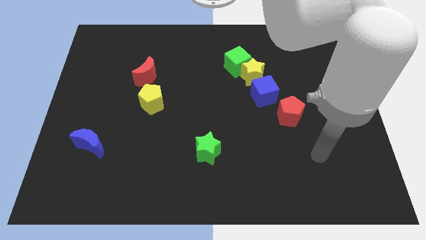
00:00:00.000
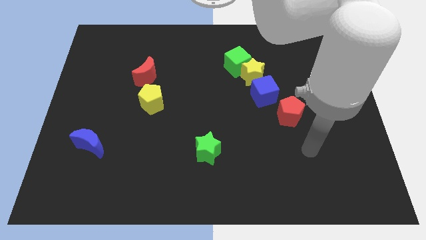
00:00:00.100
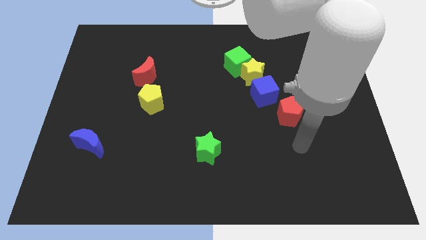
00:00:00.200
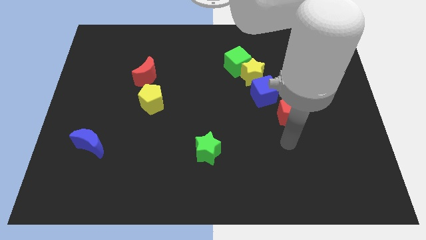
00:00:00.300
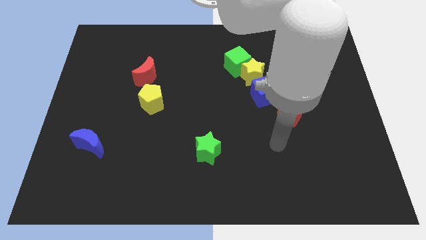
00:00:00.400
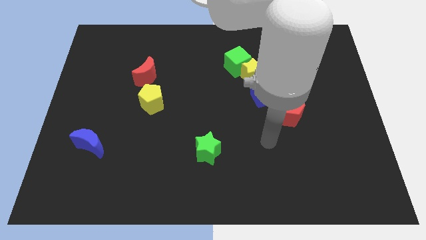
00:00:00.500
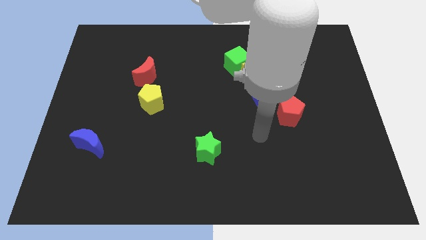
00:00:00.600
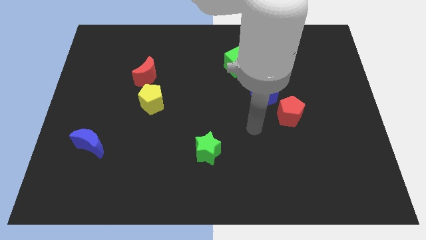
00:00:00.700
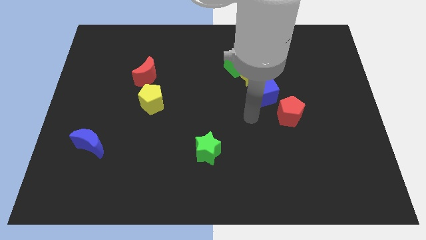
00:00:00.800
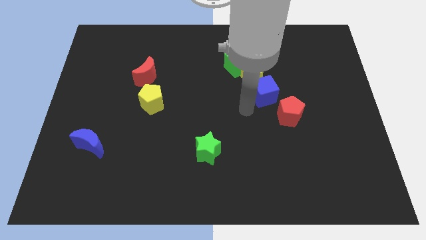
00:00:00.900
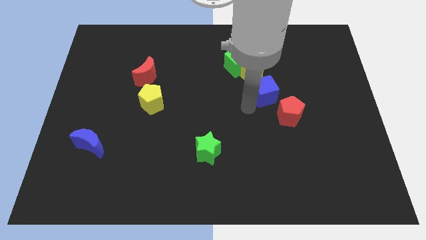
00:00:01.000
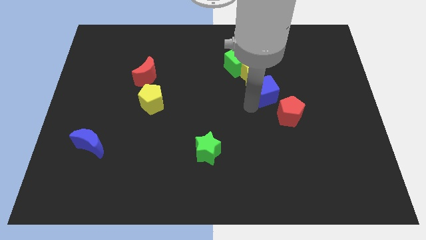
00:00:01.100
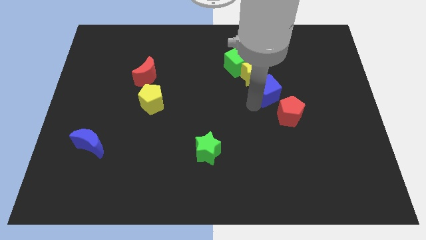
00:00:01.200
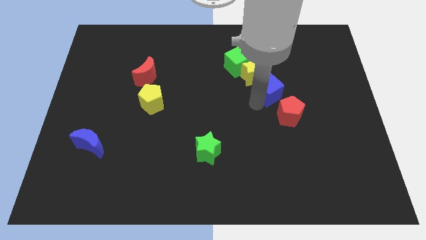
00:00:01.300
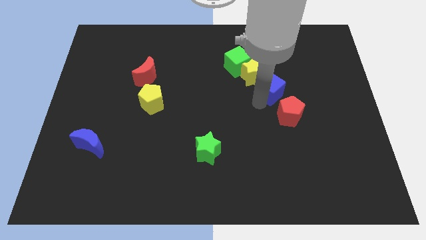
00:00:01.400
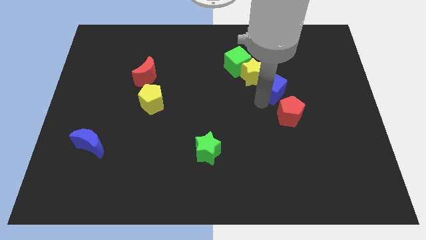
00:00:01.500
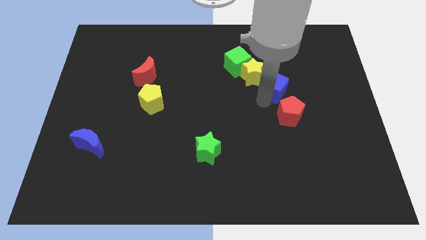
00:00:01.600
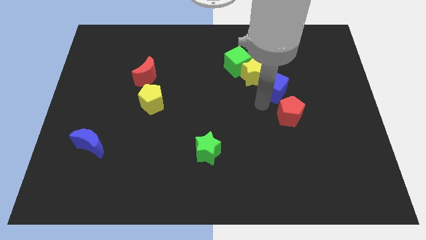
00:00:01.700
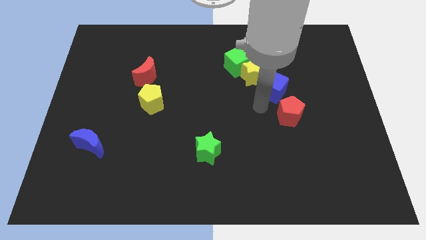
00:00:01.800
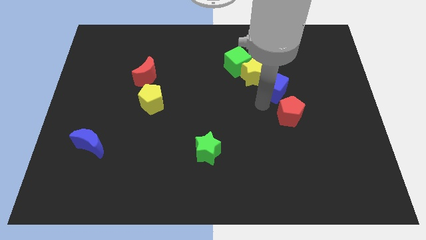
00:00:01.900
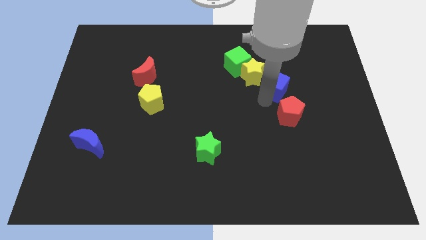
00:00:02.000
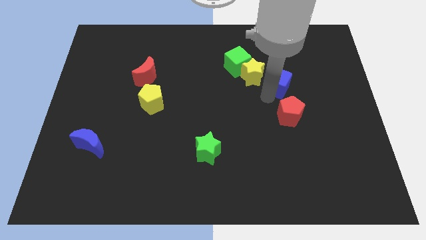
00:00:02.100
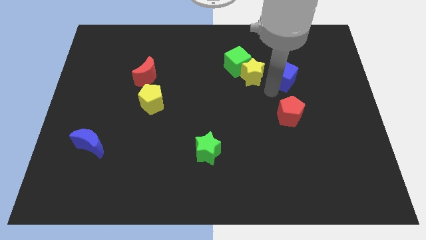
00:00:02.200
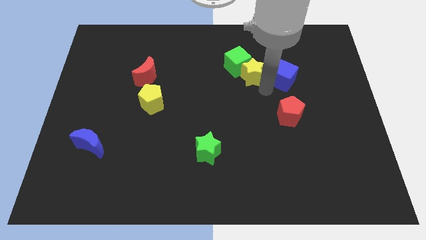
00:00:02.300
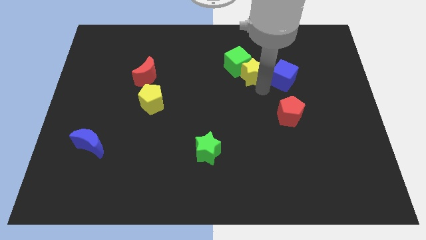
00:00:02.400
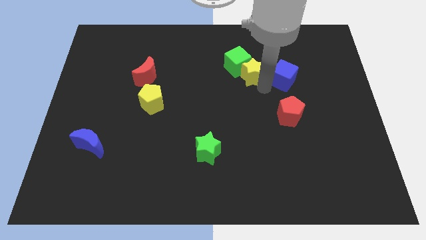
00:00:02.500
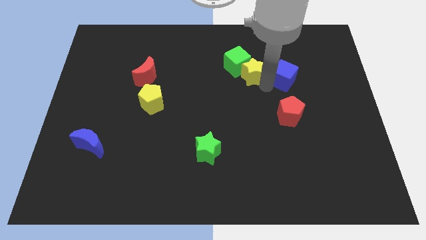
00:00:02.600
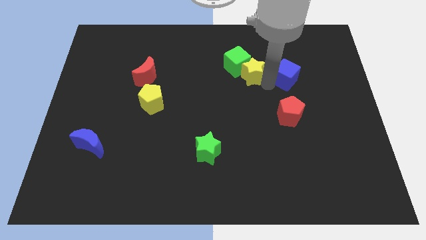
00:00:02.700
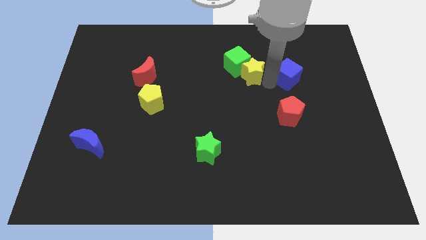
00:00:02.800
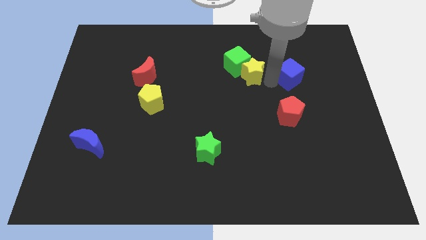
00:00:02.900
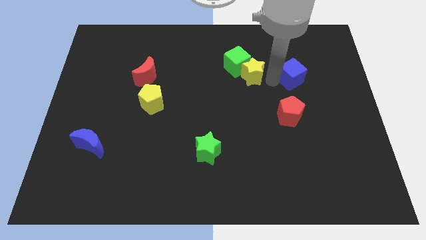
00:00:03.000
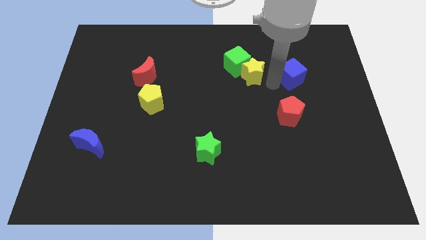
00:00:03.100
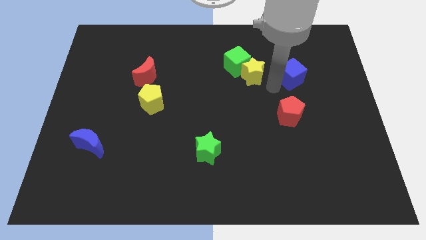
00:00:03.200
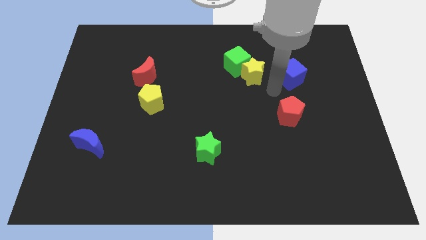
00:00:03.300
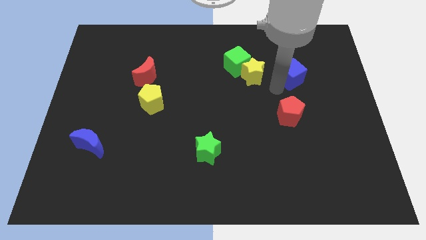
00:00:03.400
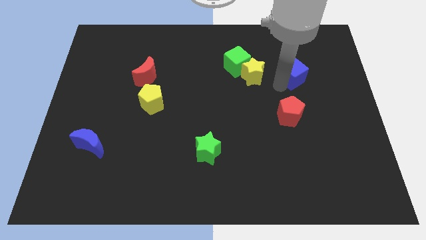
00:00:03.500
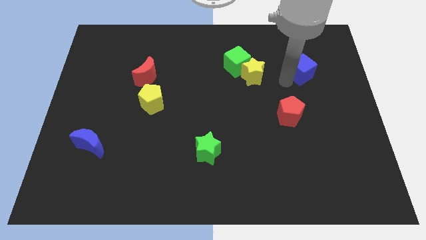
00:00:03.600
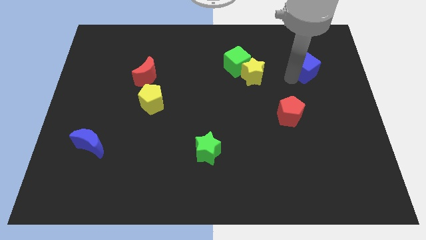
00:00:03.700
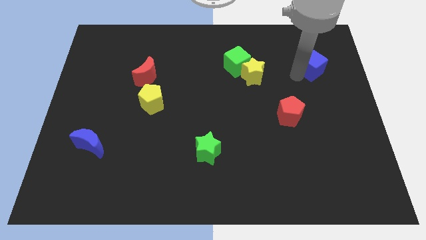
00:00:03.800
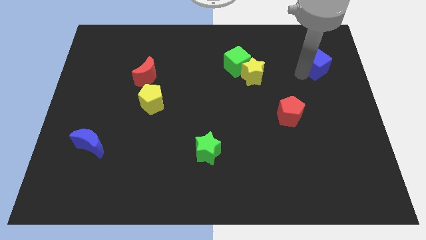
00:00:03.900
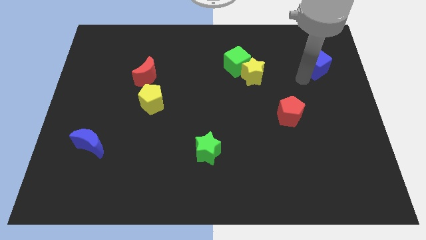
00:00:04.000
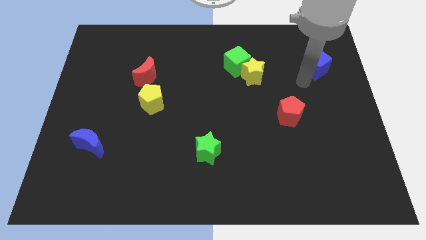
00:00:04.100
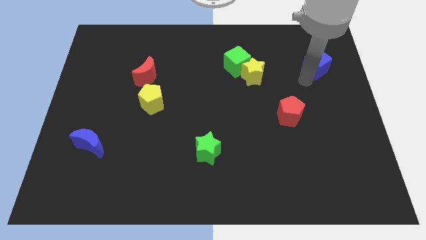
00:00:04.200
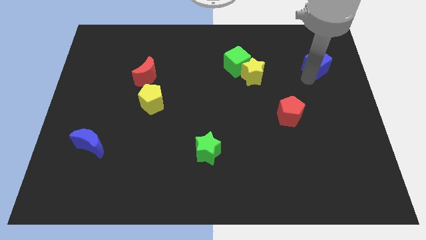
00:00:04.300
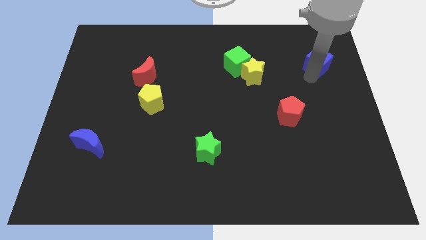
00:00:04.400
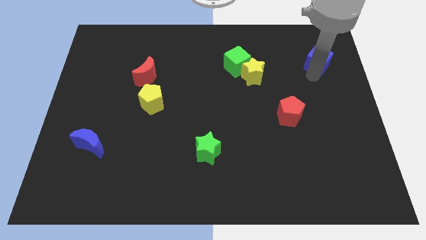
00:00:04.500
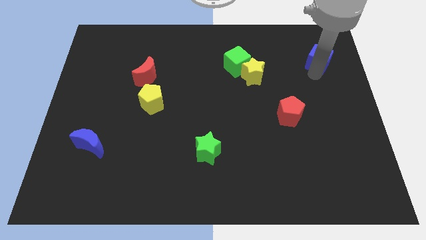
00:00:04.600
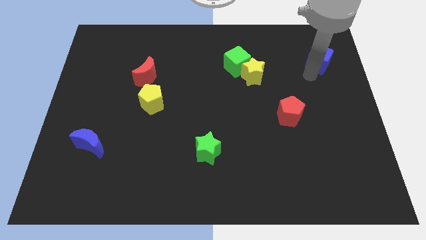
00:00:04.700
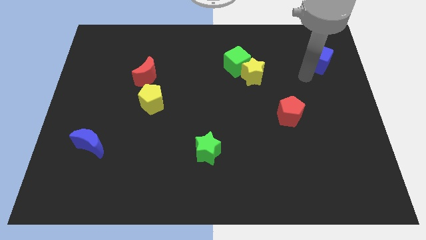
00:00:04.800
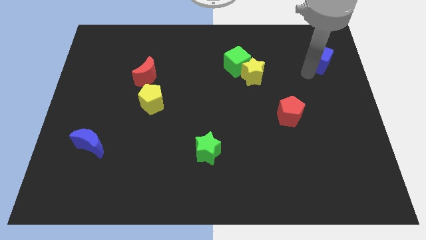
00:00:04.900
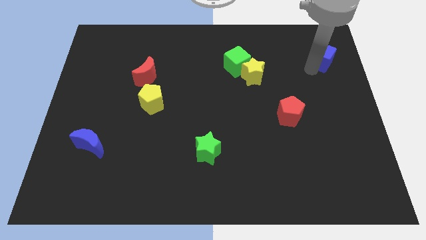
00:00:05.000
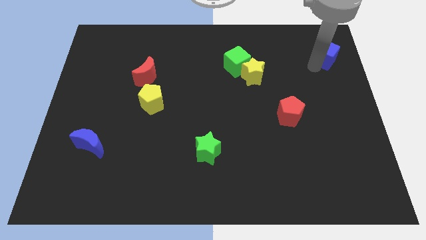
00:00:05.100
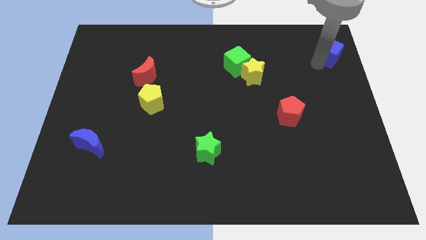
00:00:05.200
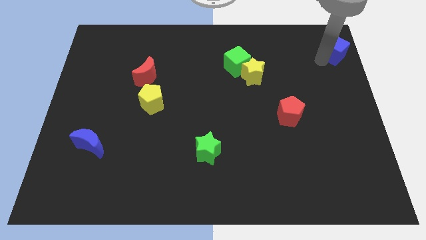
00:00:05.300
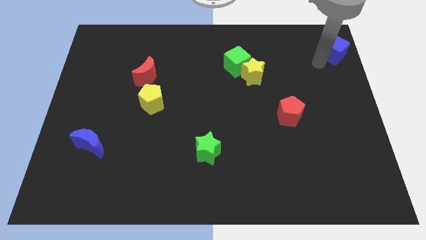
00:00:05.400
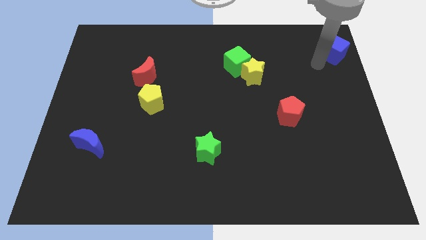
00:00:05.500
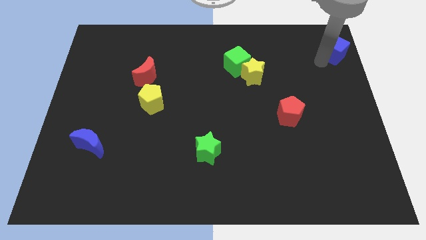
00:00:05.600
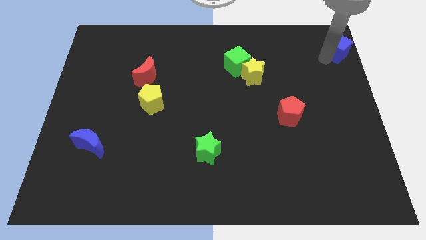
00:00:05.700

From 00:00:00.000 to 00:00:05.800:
slide the blue cube to the upper right corner

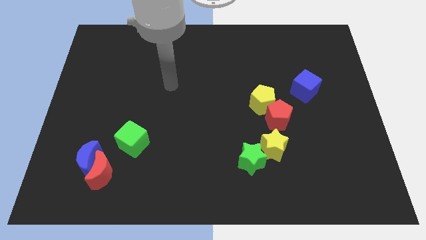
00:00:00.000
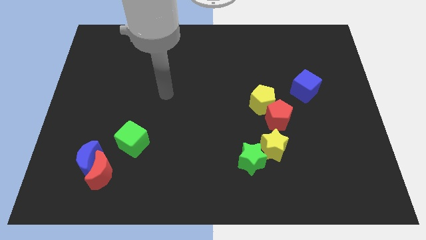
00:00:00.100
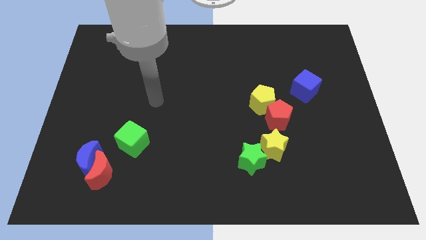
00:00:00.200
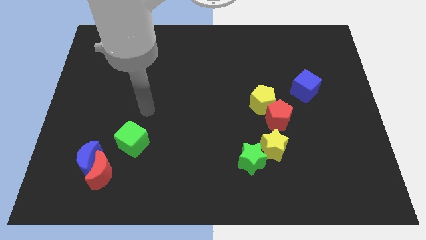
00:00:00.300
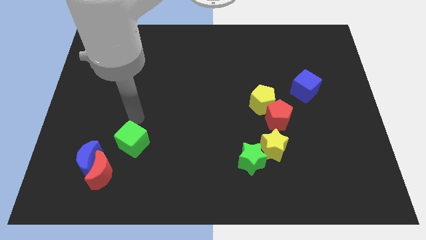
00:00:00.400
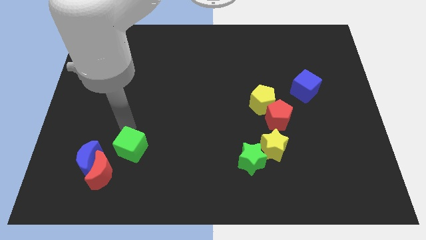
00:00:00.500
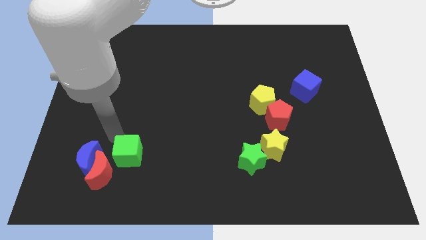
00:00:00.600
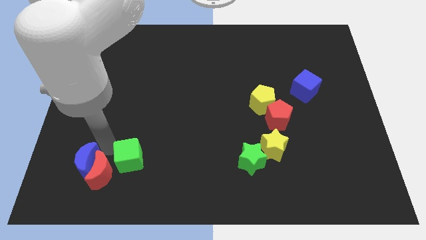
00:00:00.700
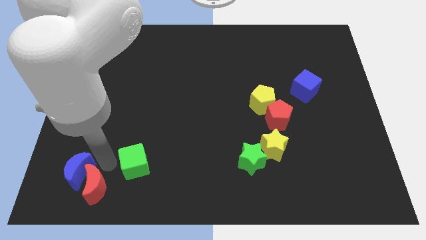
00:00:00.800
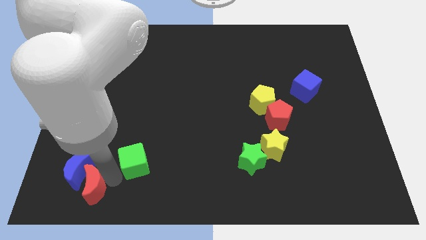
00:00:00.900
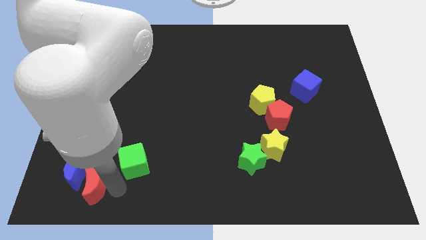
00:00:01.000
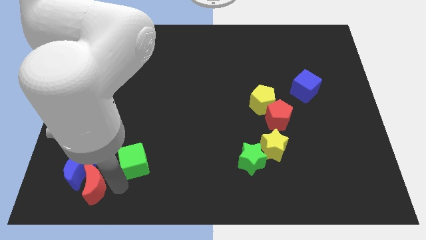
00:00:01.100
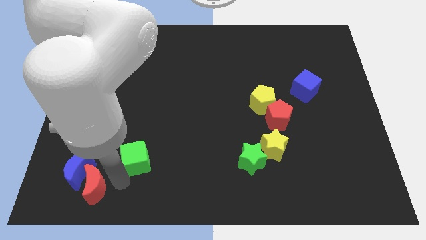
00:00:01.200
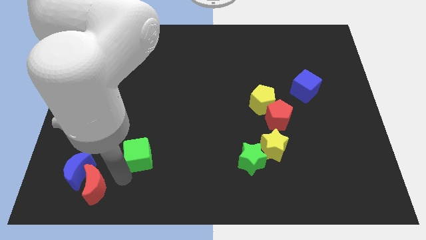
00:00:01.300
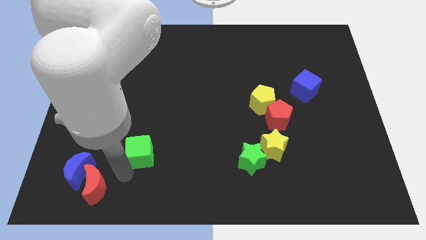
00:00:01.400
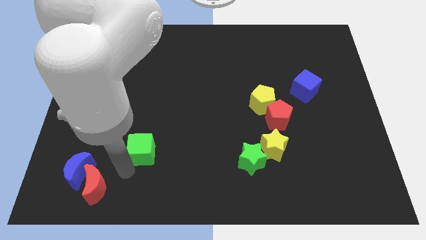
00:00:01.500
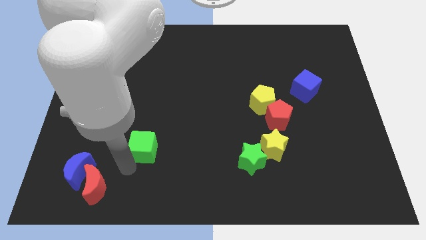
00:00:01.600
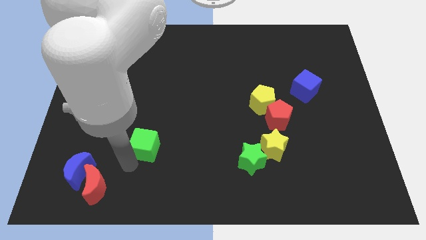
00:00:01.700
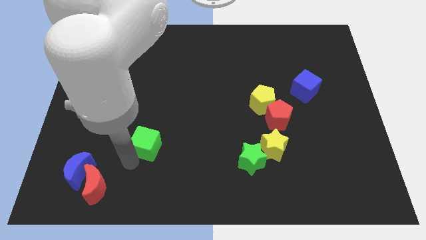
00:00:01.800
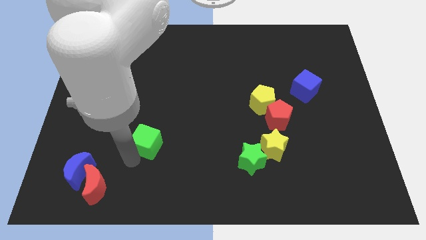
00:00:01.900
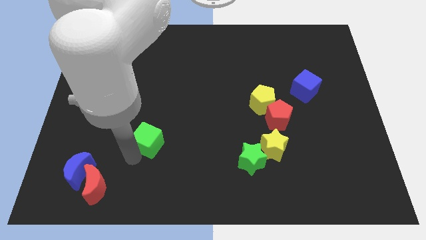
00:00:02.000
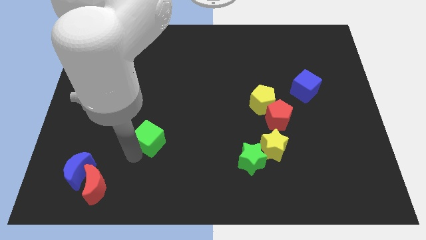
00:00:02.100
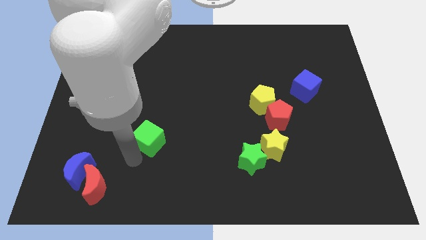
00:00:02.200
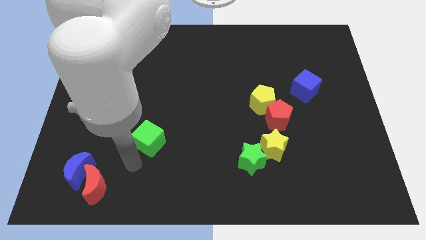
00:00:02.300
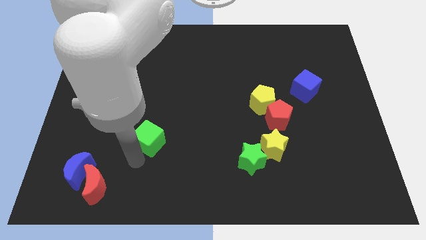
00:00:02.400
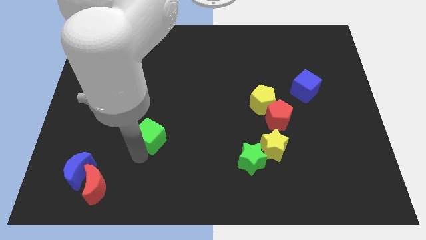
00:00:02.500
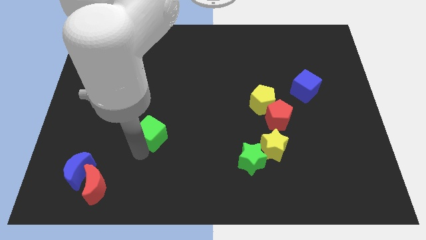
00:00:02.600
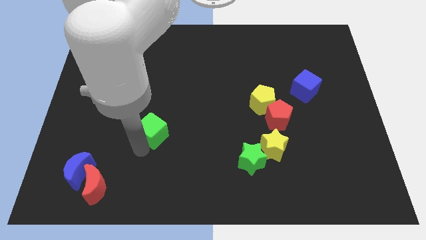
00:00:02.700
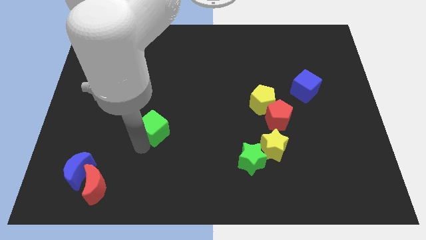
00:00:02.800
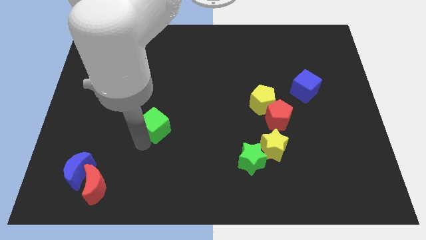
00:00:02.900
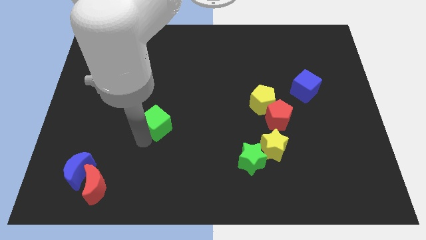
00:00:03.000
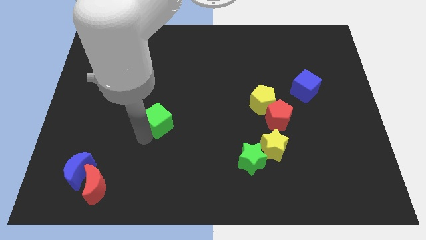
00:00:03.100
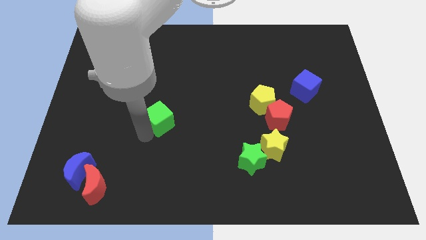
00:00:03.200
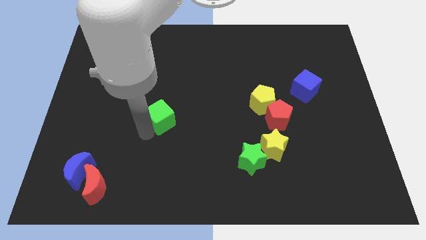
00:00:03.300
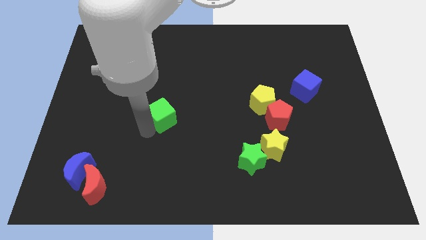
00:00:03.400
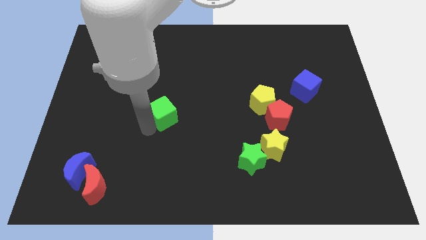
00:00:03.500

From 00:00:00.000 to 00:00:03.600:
slide the green cube to the center
